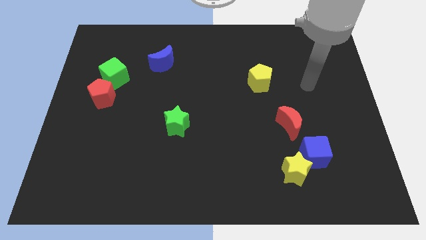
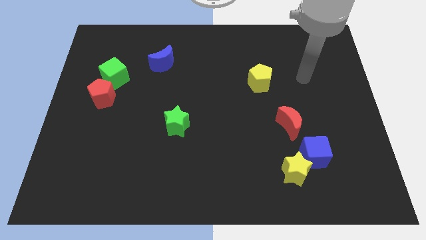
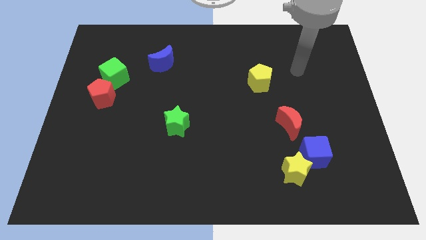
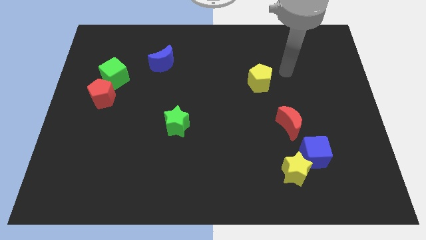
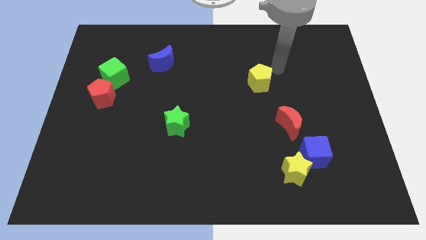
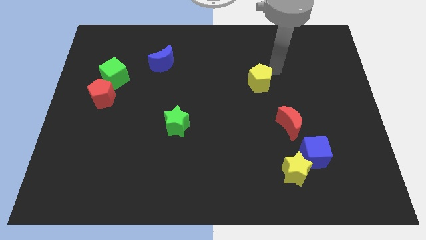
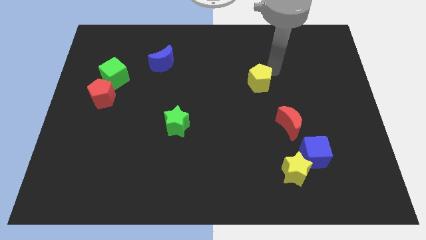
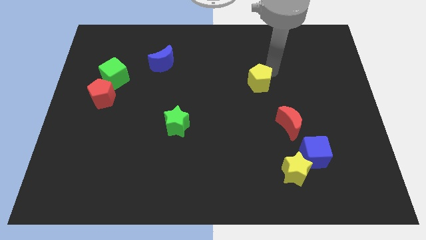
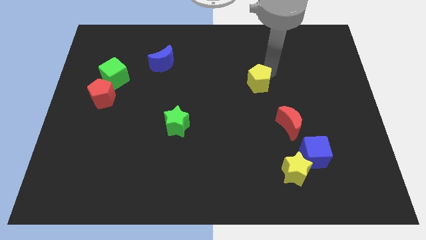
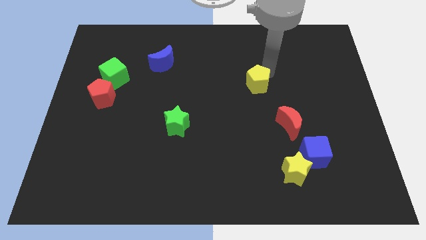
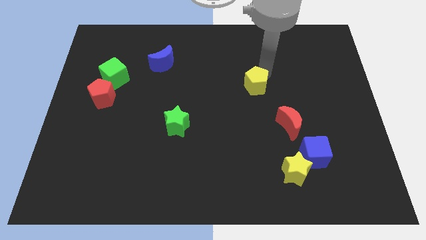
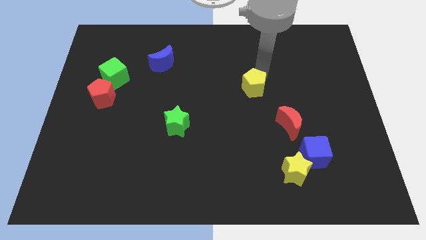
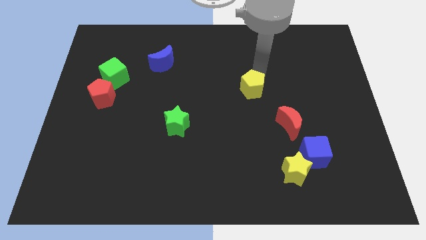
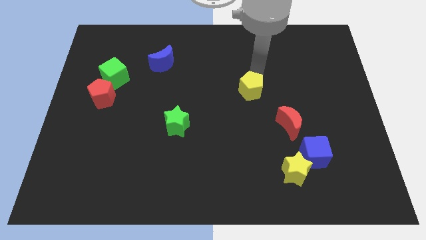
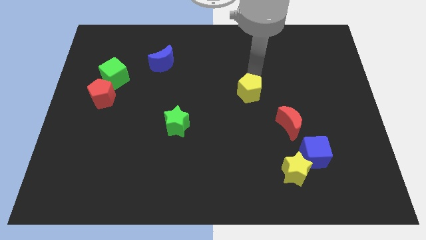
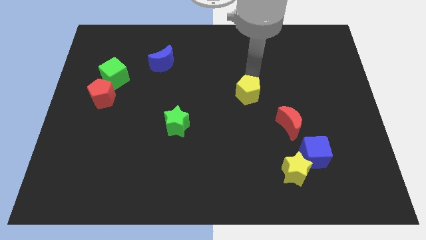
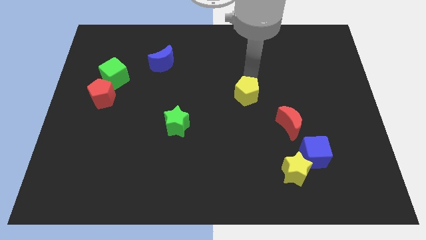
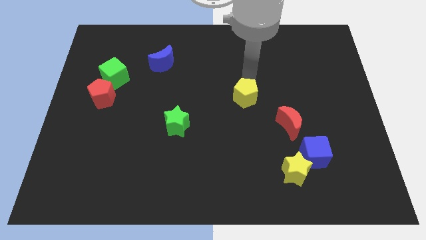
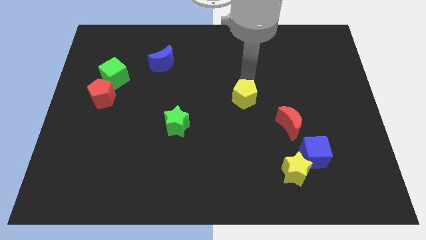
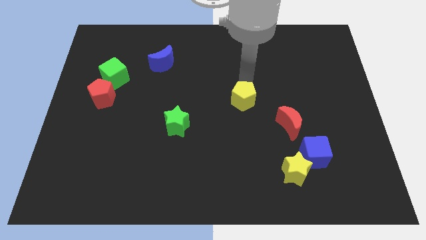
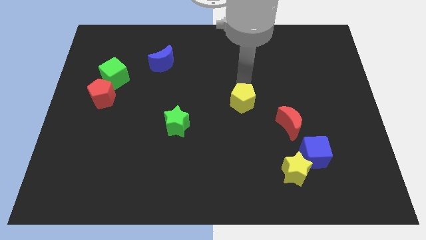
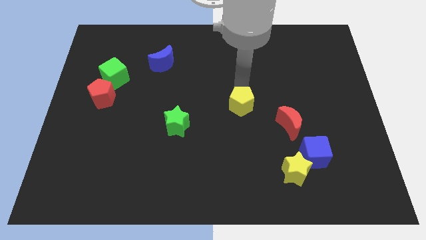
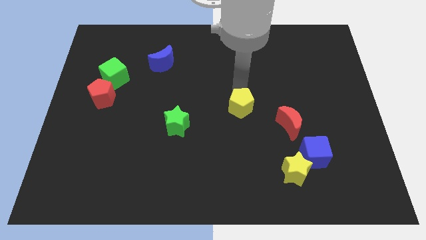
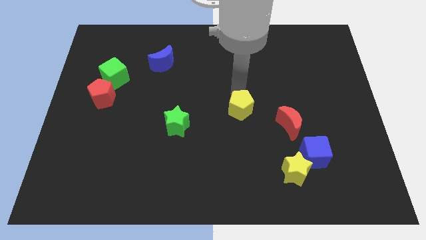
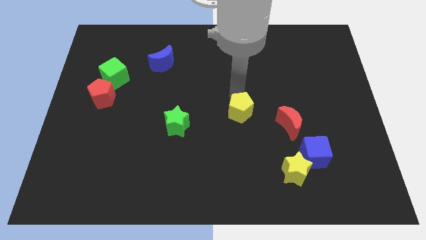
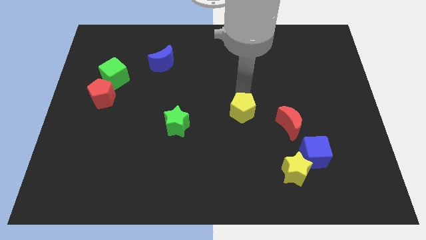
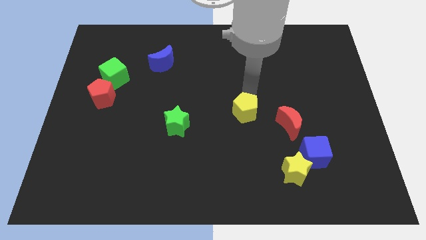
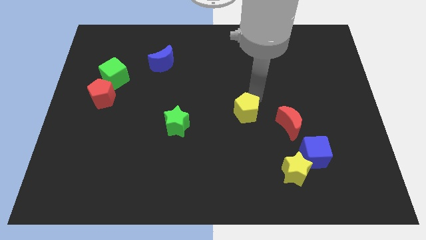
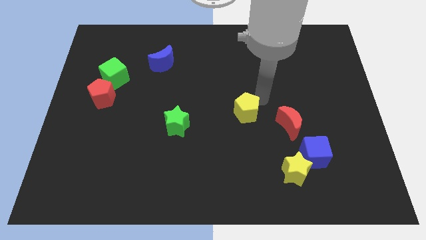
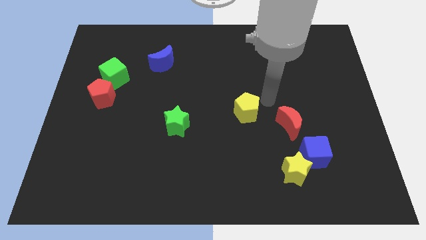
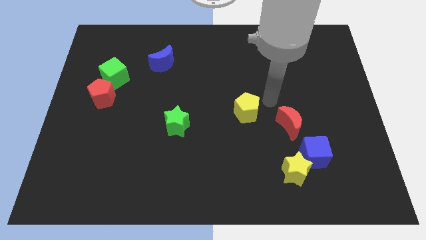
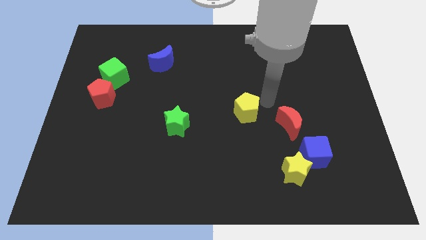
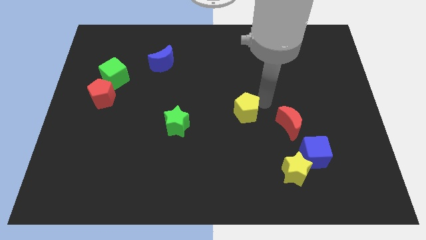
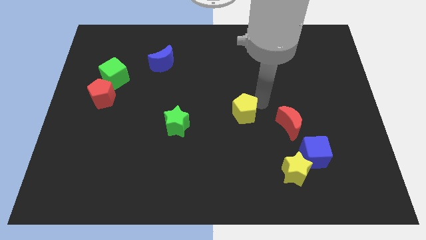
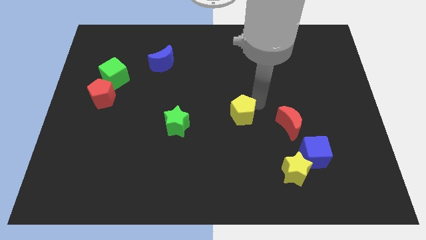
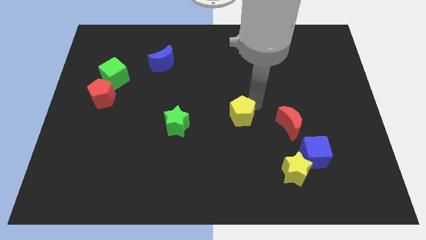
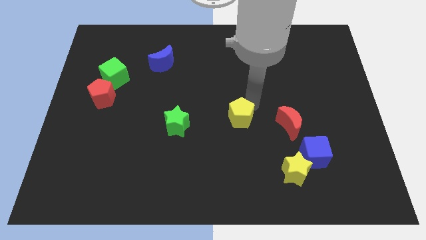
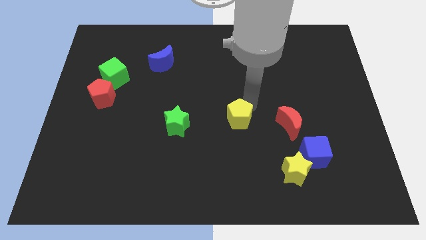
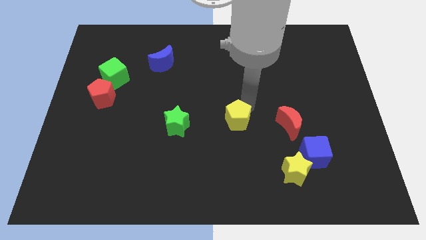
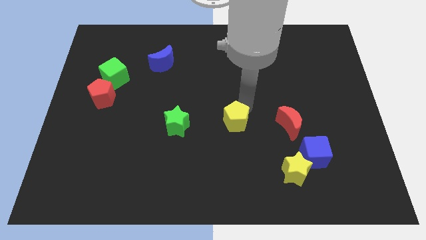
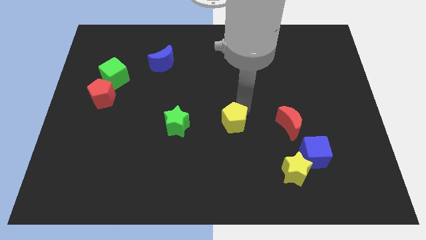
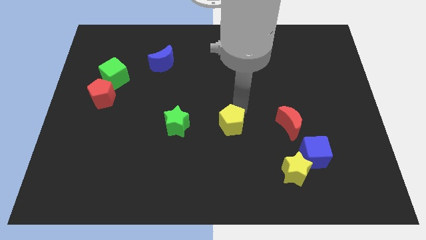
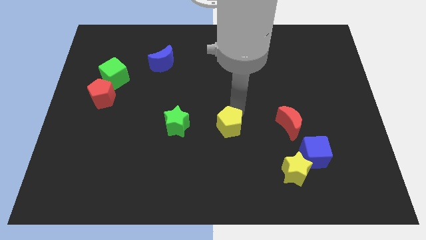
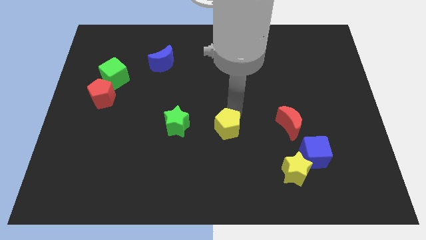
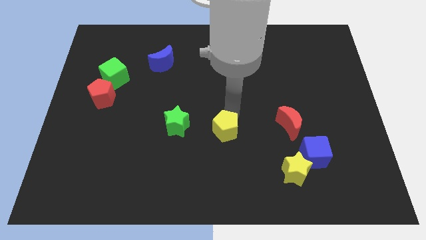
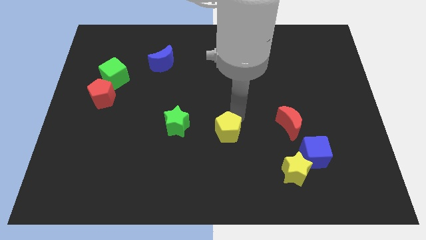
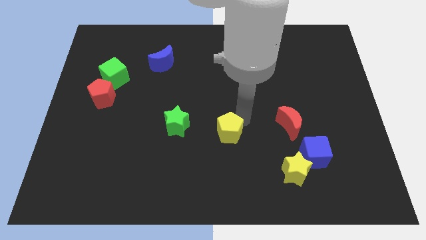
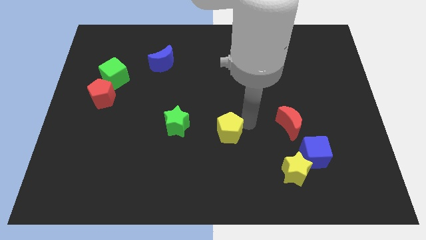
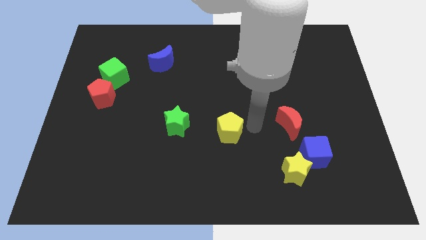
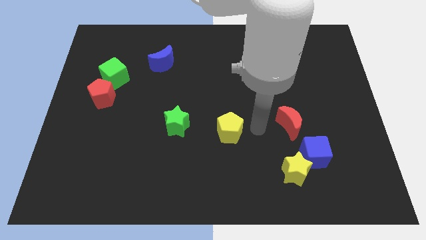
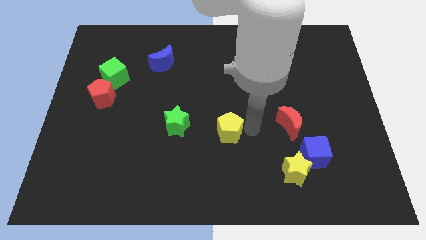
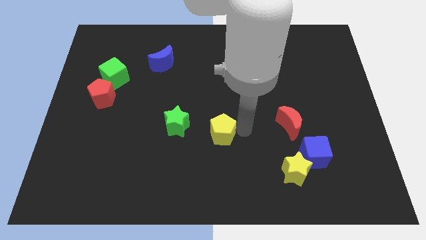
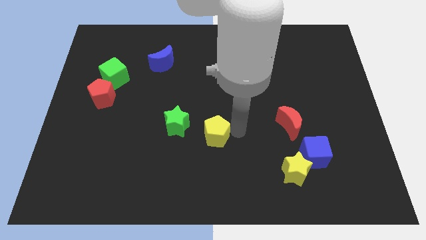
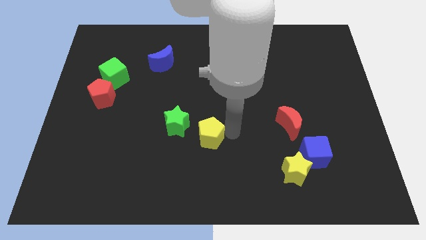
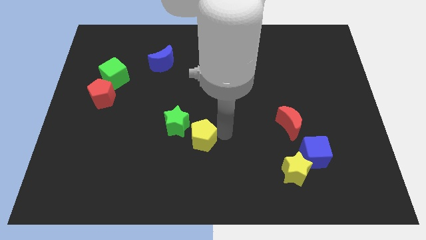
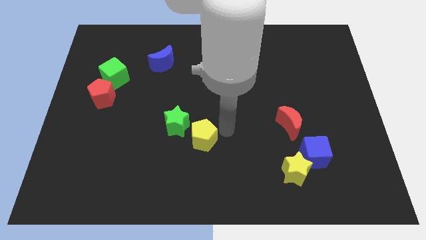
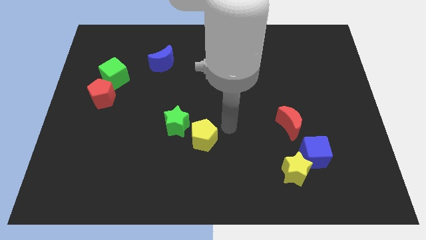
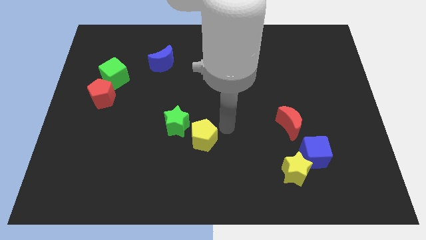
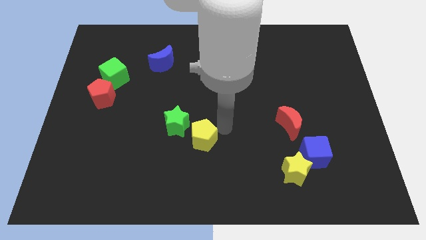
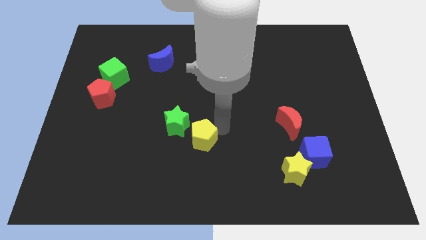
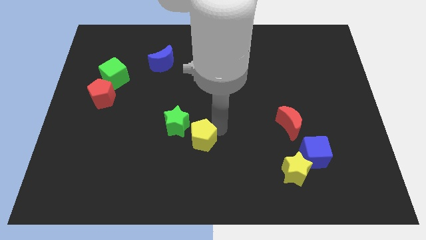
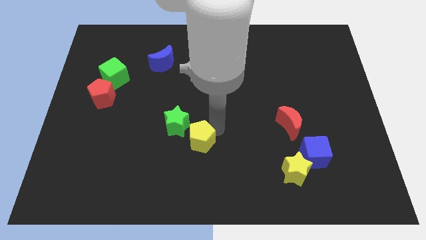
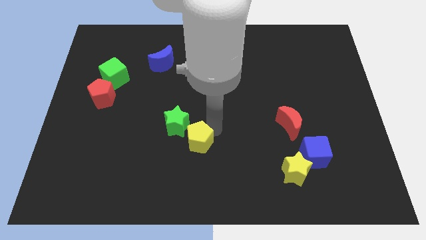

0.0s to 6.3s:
slide the yellow pentagon to the bottom of the green star

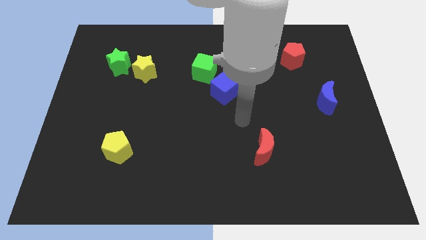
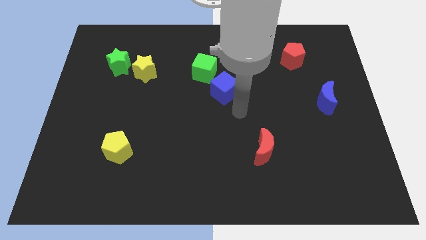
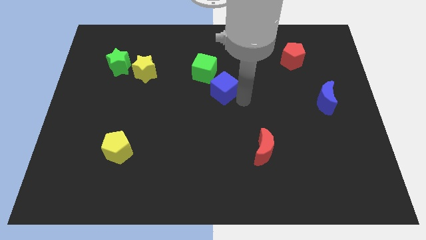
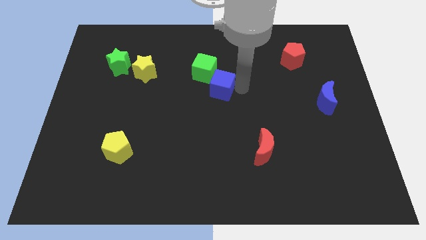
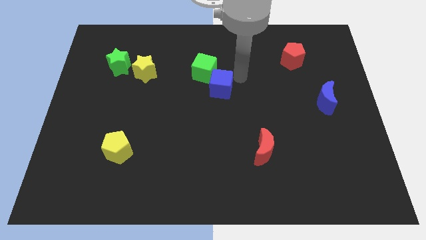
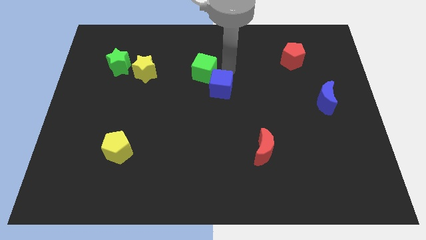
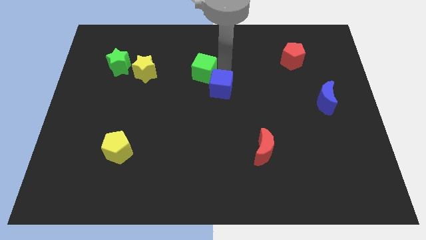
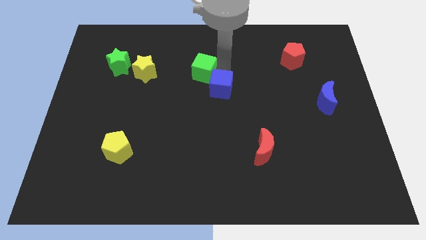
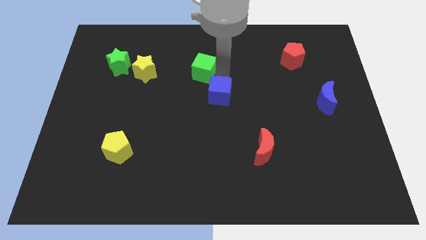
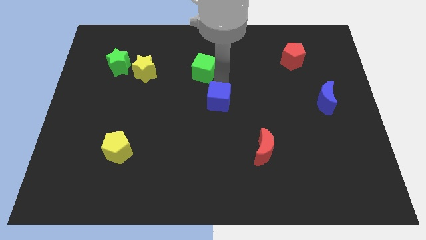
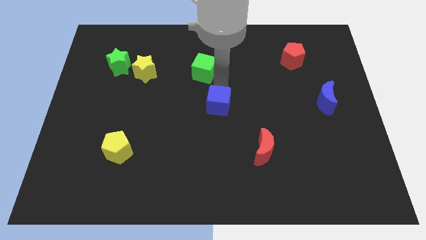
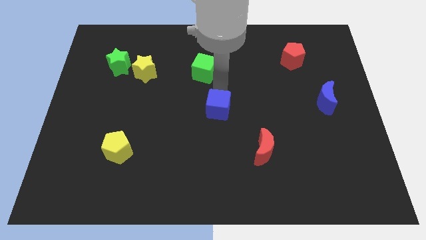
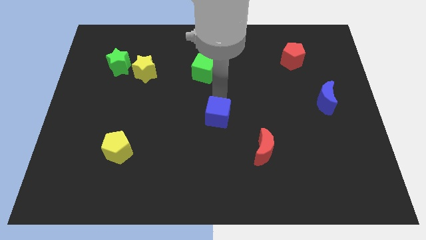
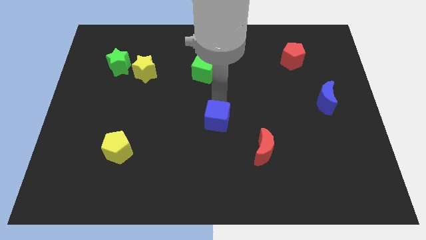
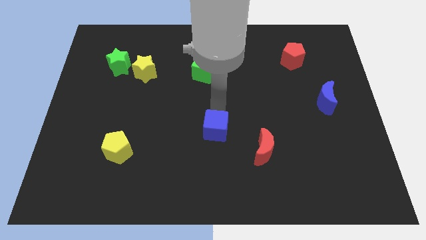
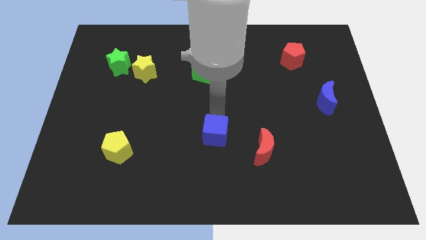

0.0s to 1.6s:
put the blue cube to the left side of the red moon
